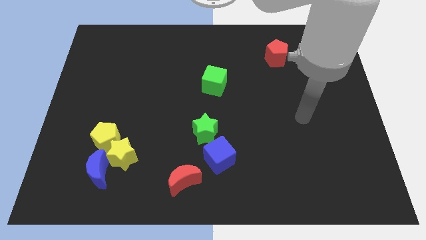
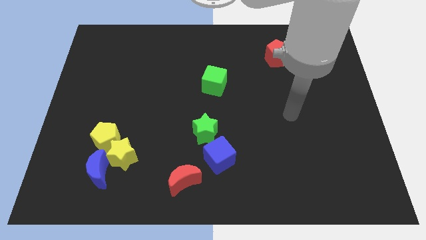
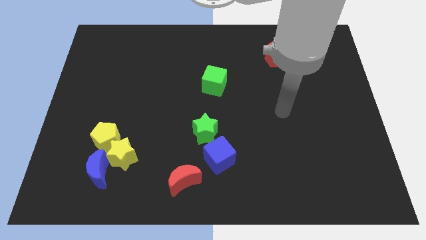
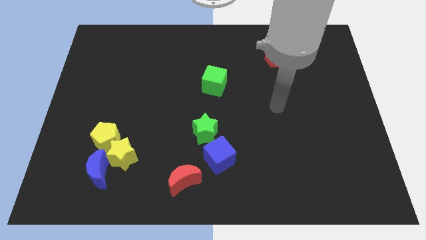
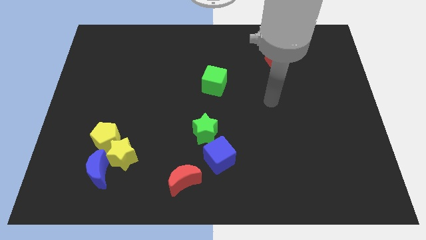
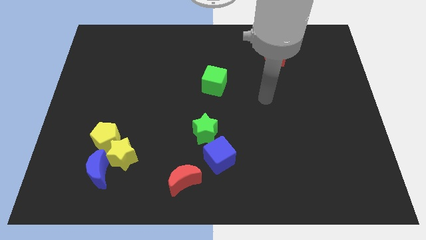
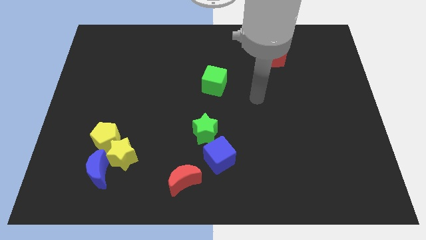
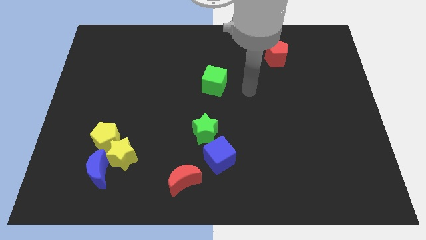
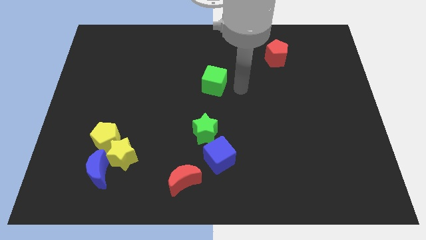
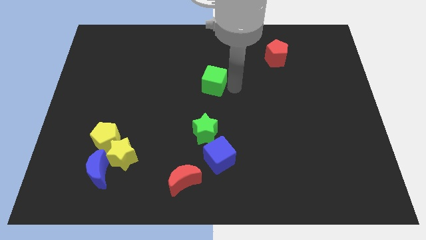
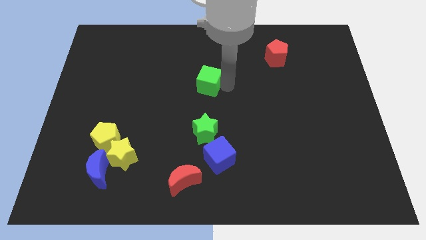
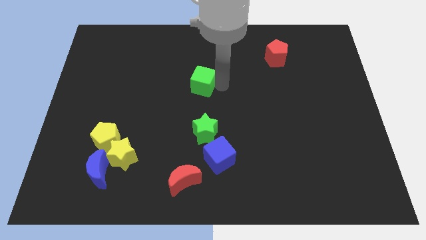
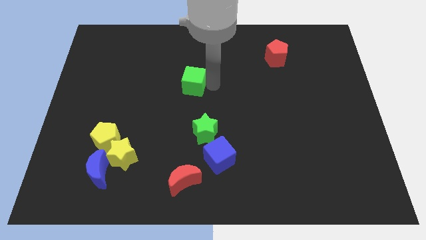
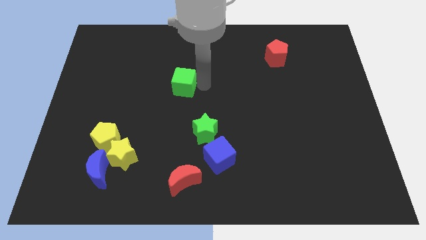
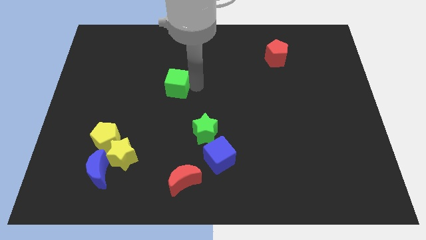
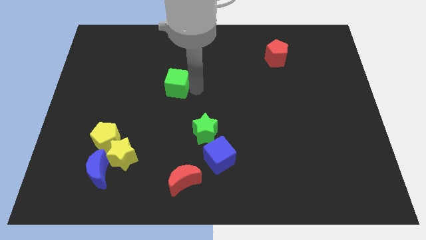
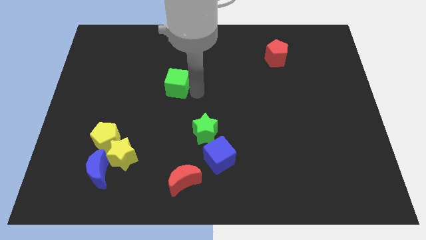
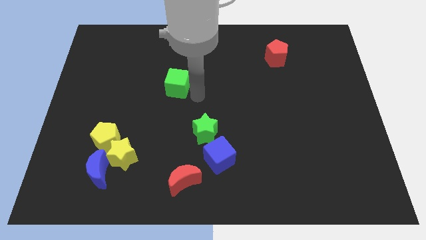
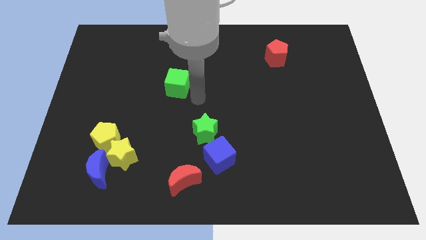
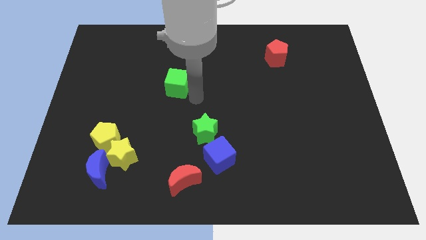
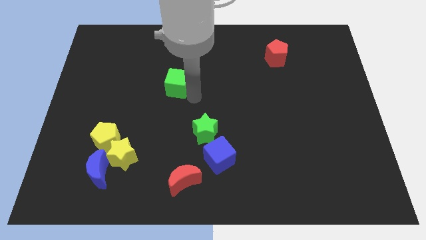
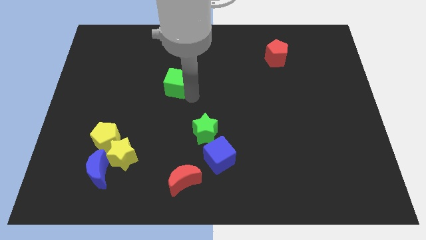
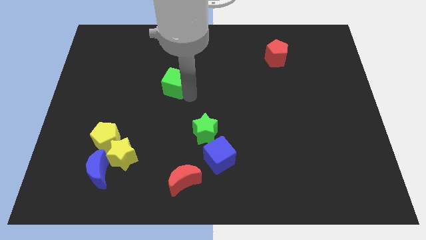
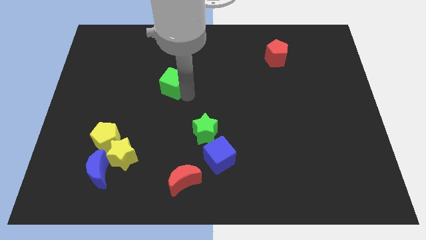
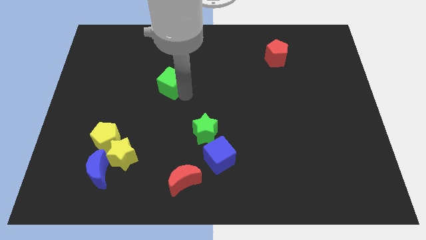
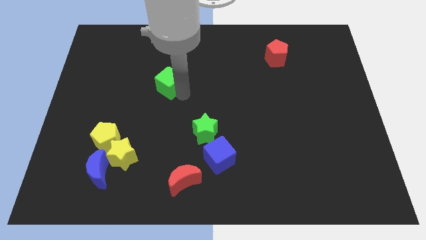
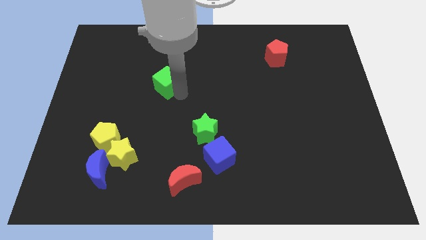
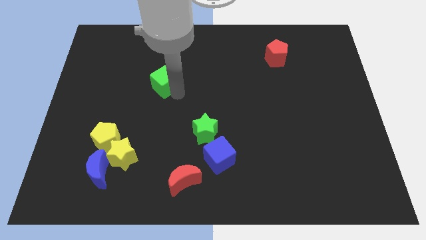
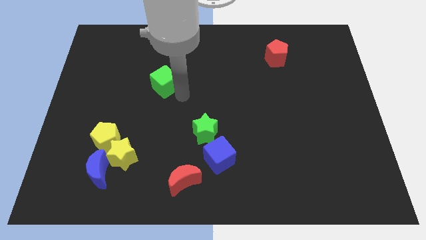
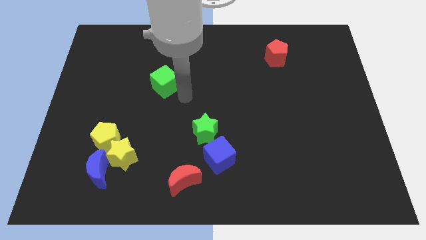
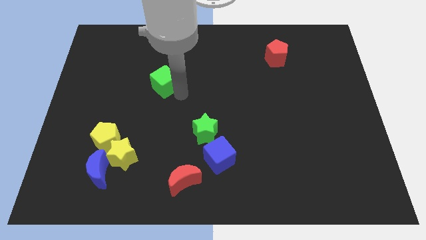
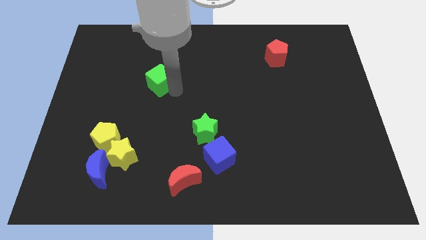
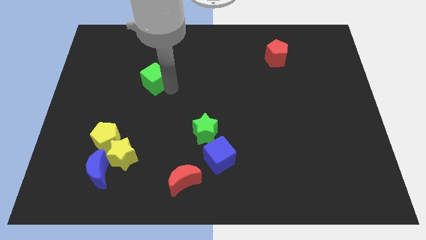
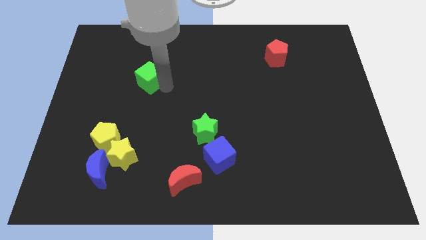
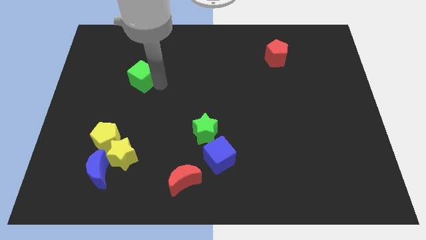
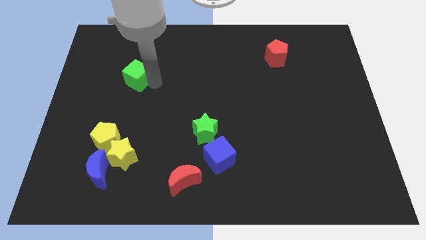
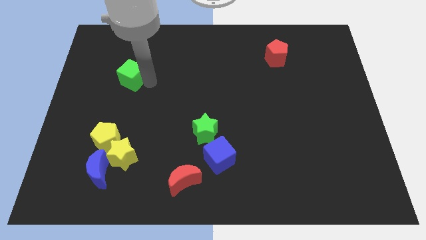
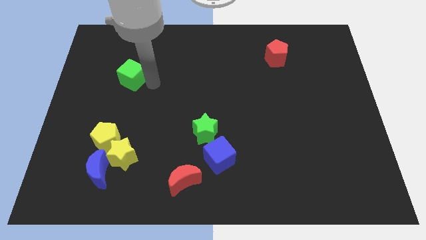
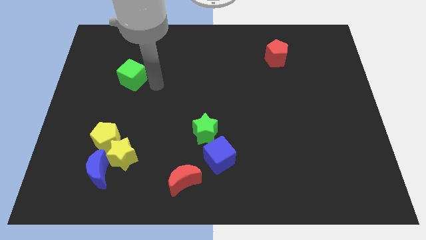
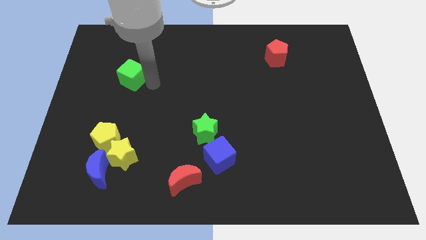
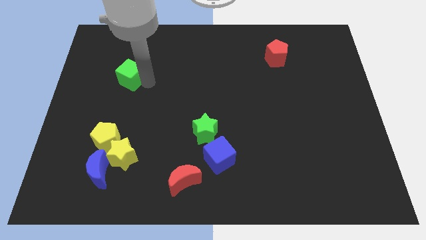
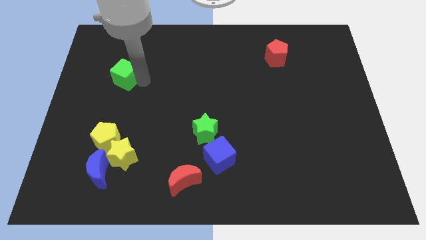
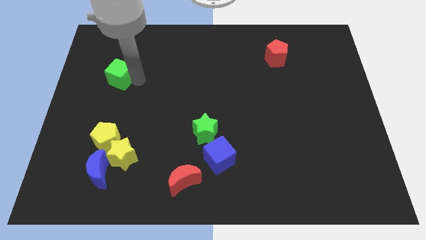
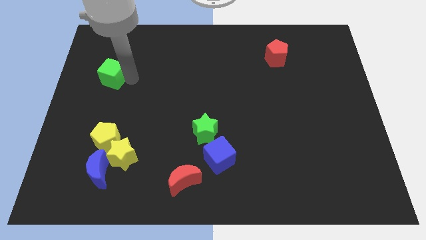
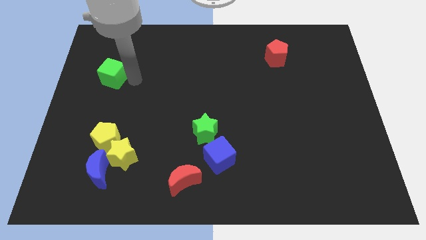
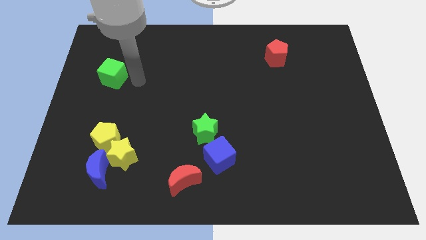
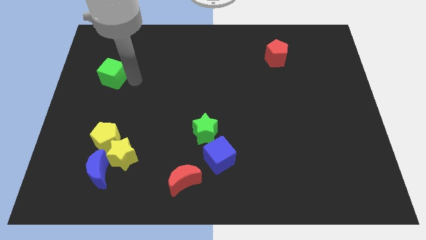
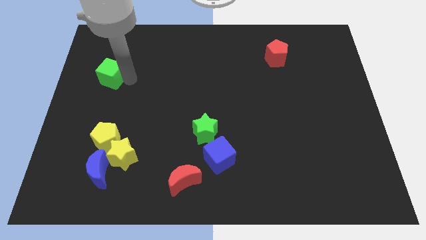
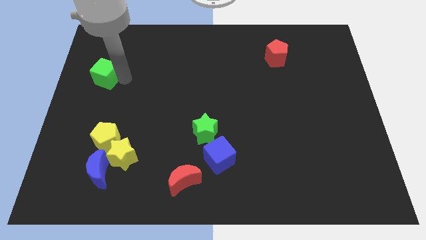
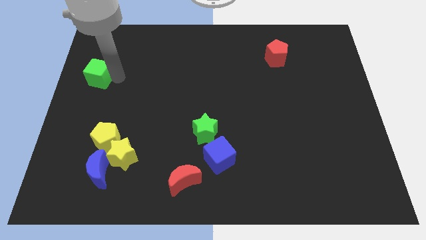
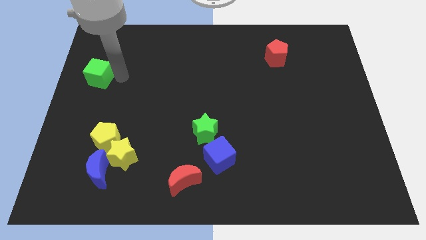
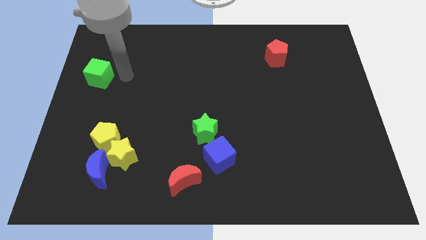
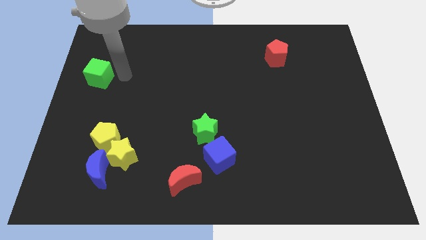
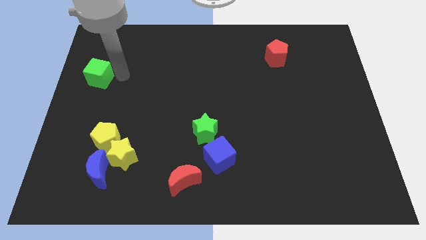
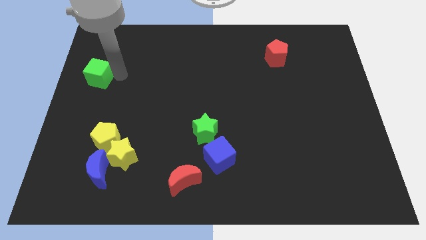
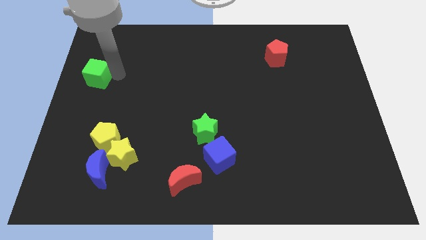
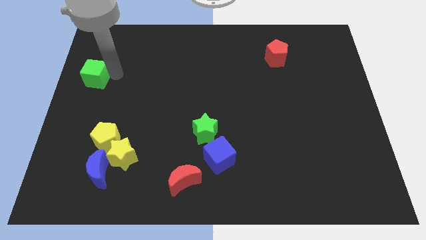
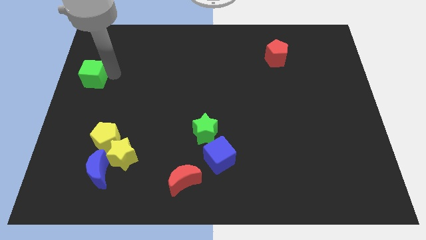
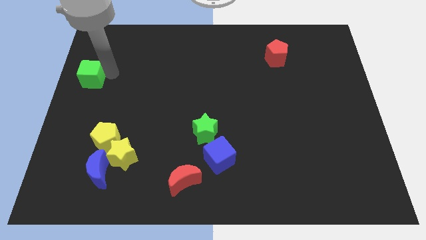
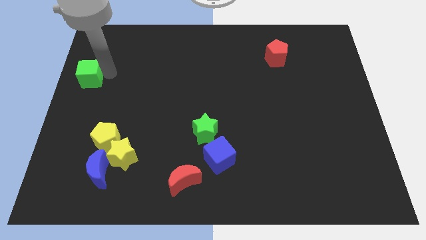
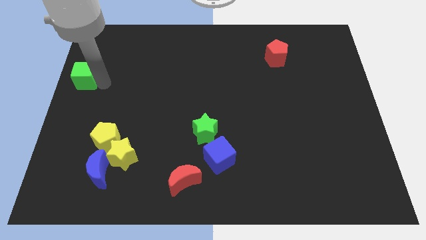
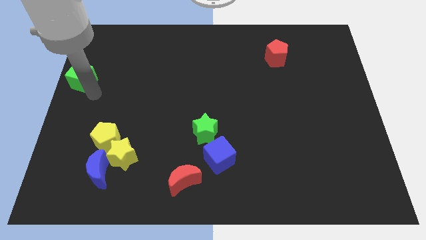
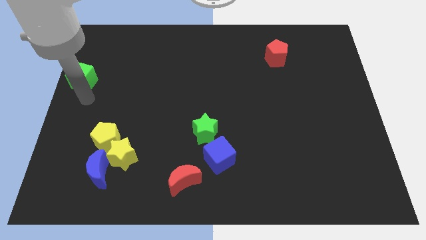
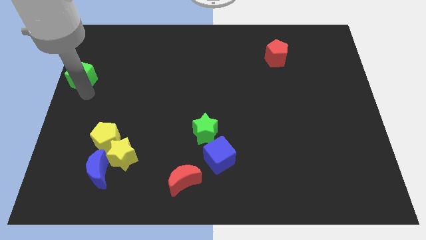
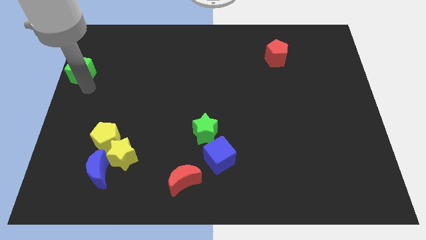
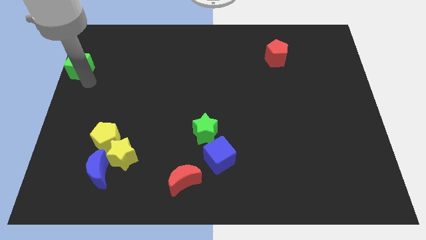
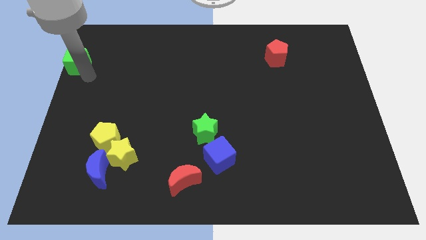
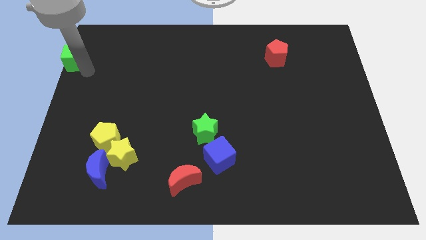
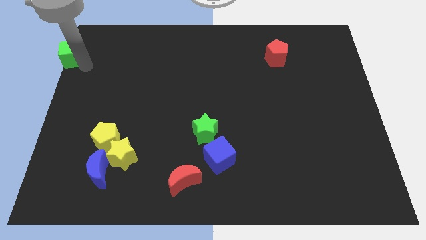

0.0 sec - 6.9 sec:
push the green cube to the top left
